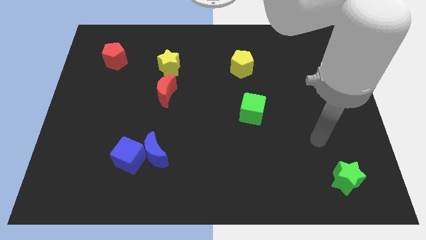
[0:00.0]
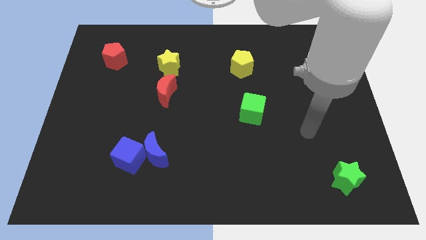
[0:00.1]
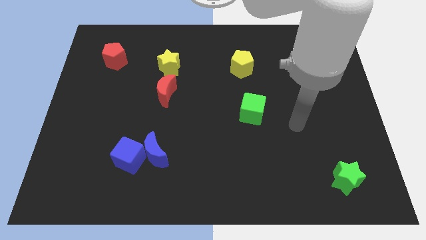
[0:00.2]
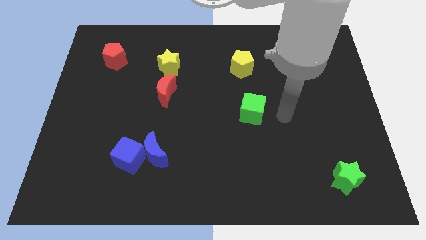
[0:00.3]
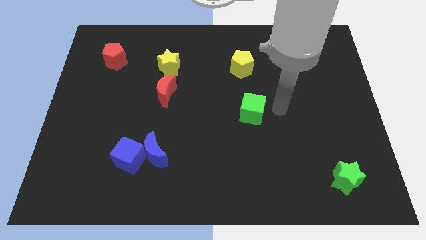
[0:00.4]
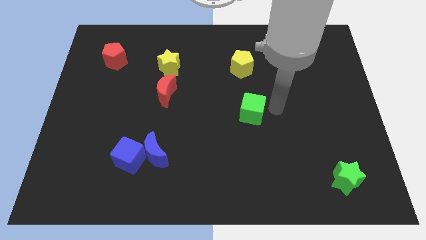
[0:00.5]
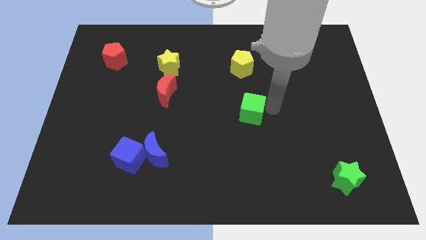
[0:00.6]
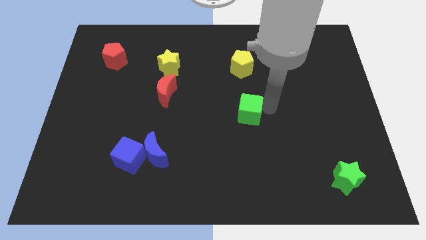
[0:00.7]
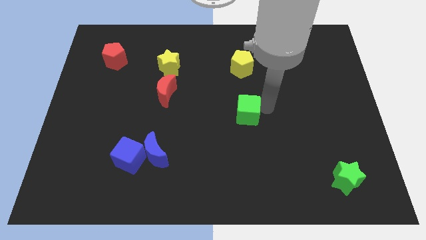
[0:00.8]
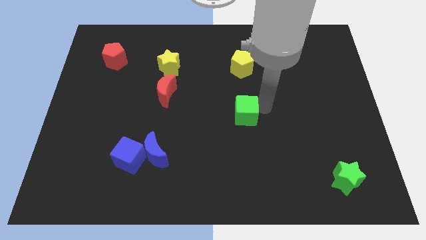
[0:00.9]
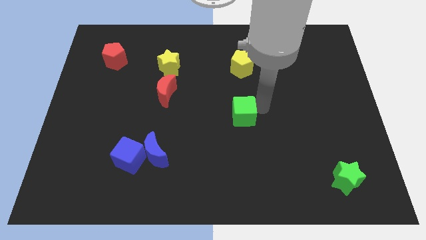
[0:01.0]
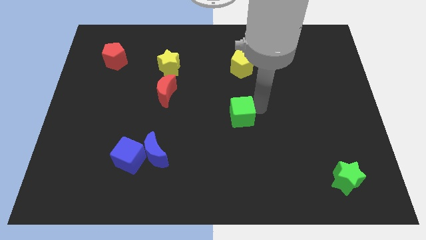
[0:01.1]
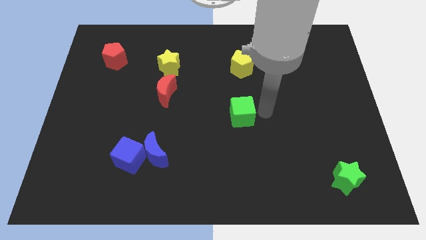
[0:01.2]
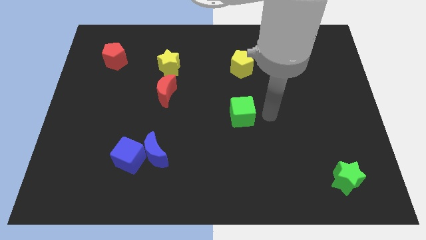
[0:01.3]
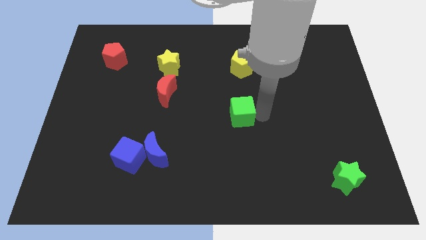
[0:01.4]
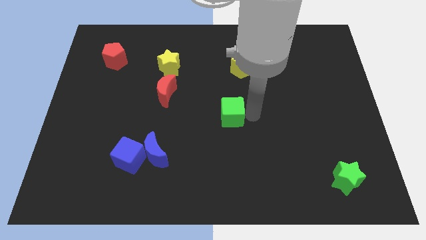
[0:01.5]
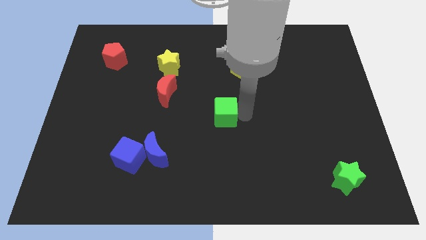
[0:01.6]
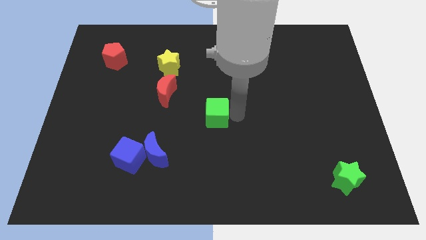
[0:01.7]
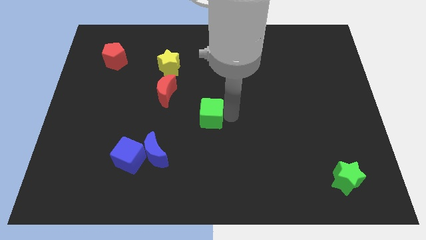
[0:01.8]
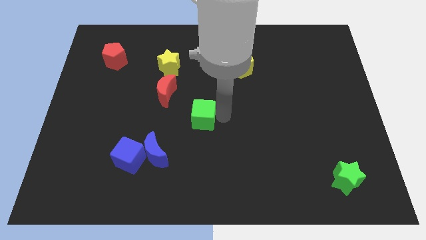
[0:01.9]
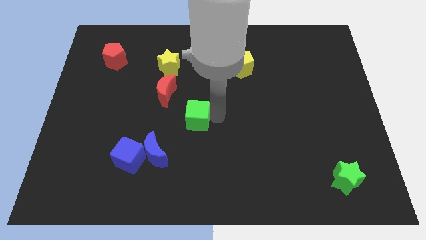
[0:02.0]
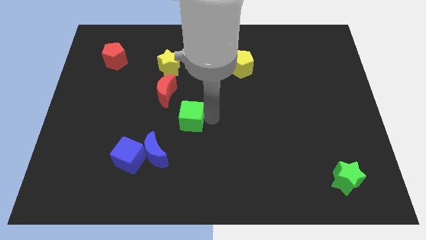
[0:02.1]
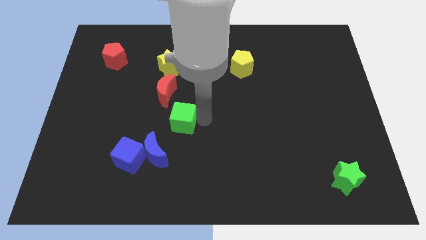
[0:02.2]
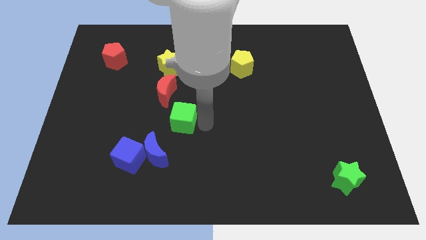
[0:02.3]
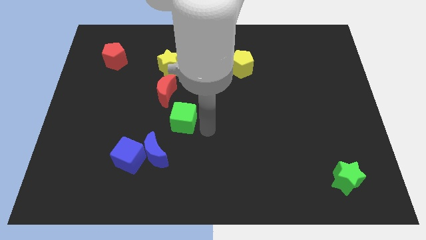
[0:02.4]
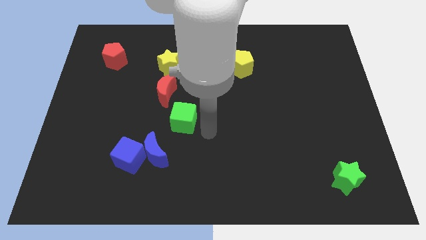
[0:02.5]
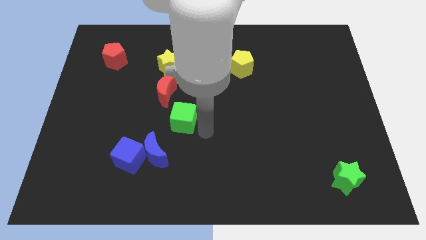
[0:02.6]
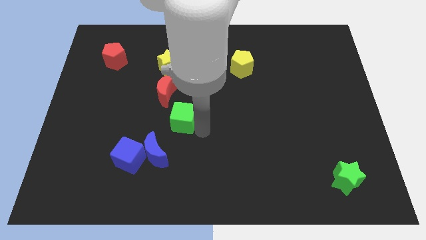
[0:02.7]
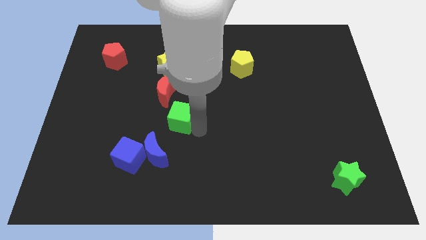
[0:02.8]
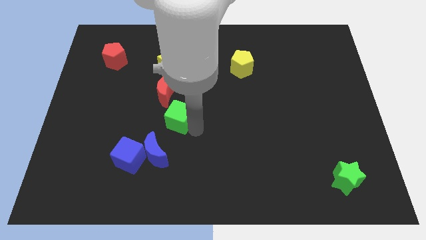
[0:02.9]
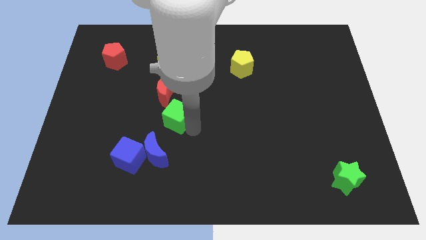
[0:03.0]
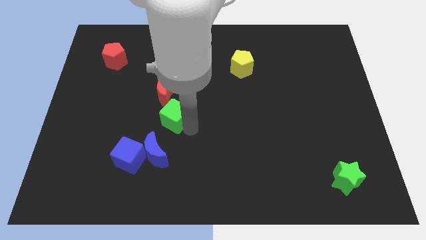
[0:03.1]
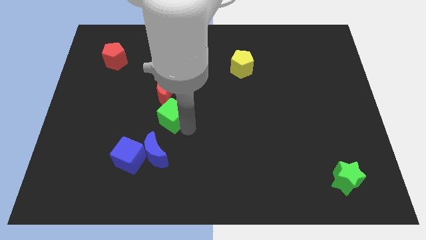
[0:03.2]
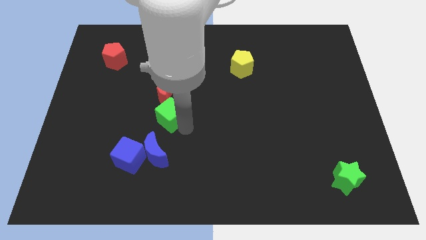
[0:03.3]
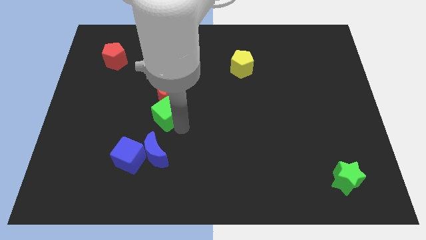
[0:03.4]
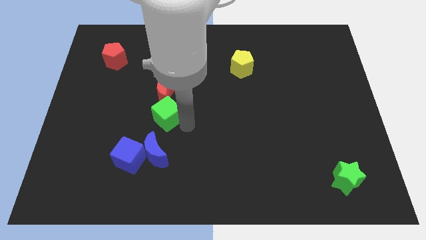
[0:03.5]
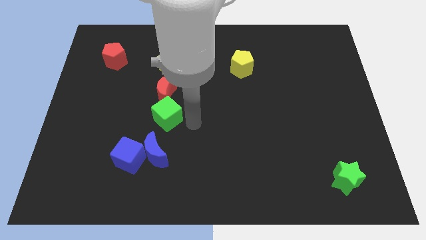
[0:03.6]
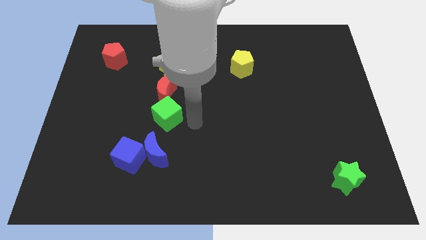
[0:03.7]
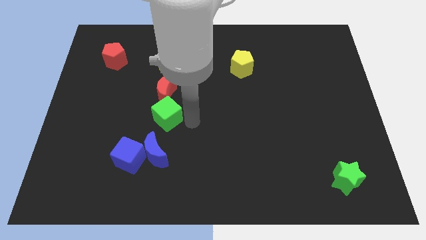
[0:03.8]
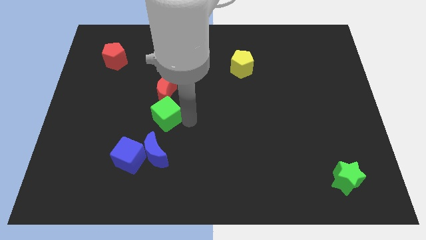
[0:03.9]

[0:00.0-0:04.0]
move the green cube to the left

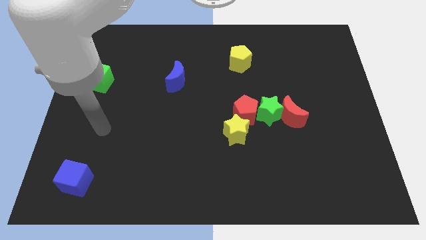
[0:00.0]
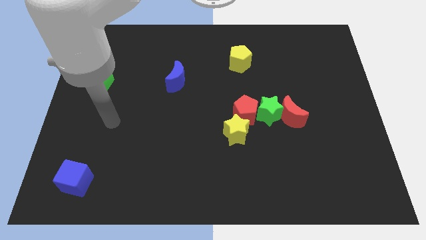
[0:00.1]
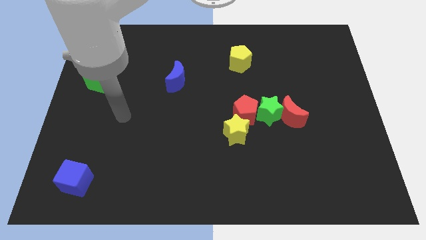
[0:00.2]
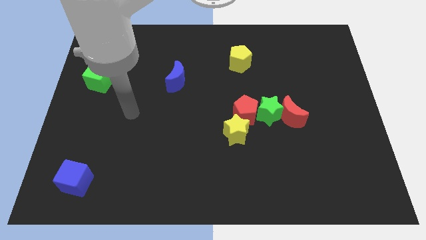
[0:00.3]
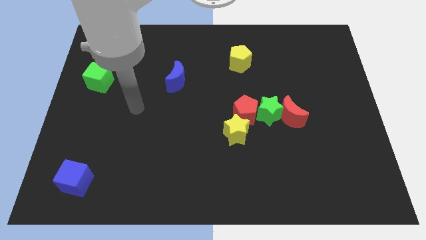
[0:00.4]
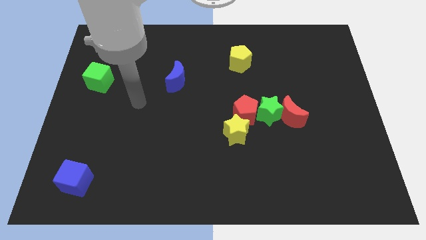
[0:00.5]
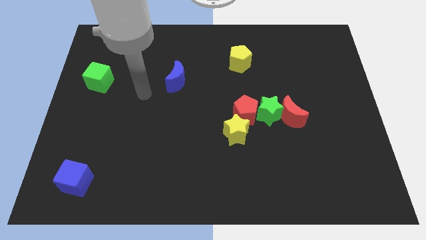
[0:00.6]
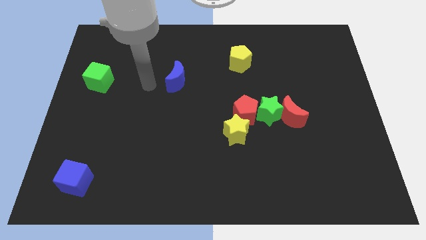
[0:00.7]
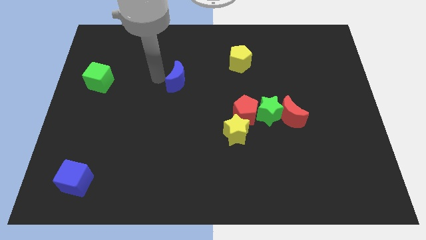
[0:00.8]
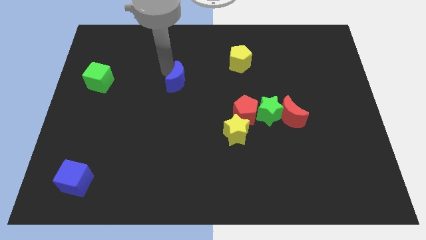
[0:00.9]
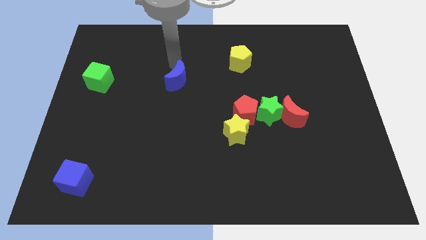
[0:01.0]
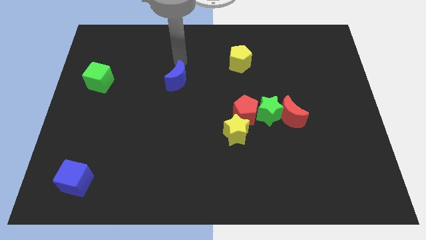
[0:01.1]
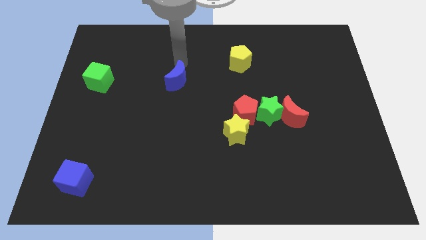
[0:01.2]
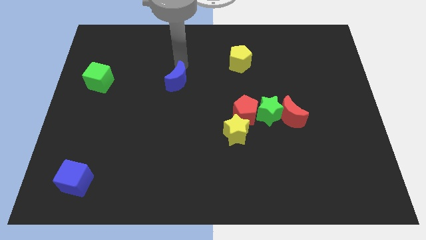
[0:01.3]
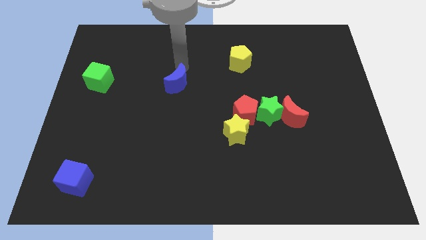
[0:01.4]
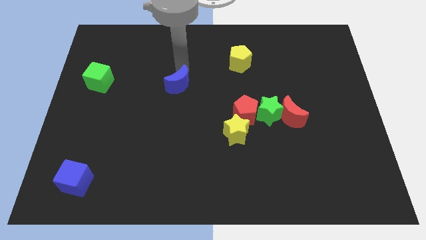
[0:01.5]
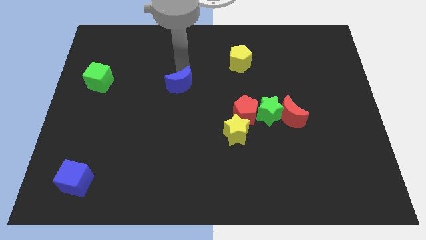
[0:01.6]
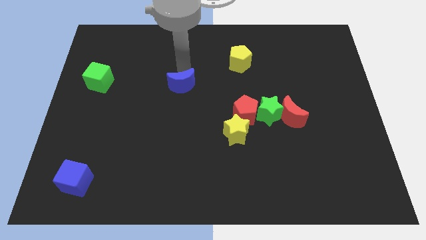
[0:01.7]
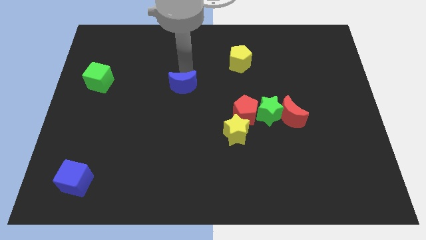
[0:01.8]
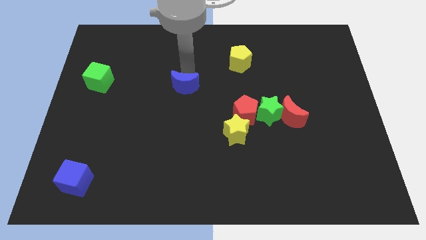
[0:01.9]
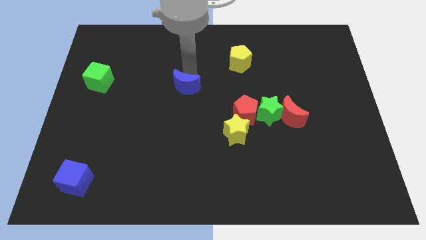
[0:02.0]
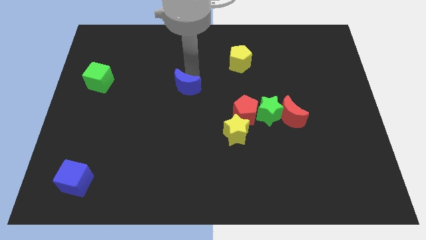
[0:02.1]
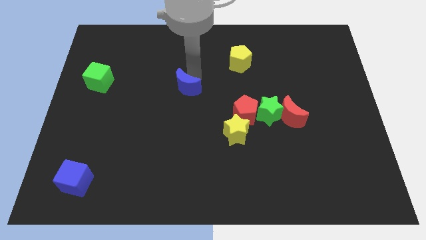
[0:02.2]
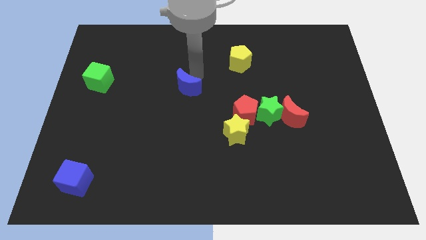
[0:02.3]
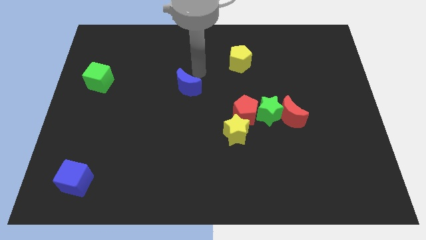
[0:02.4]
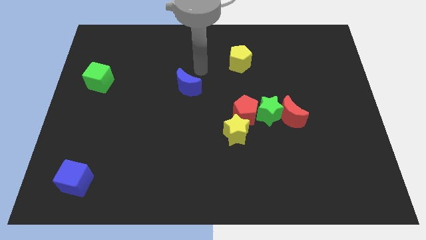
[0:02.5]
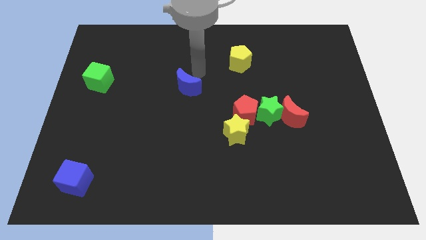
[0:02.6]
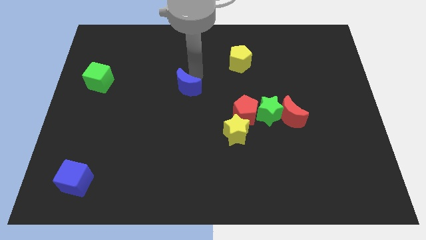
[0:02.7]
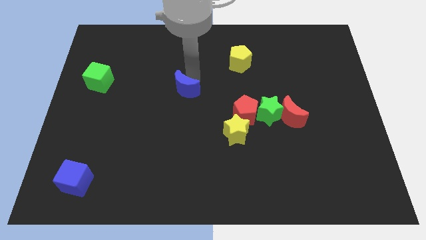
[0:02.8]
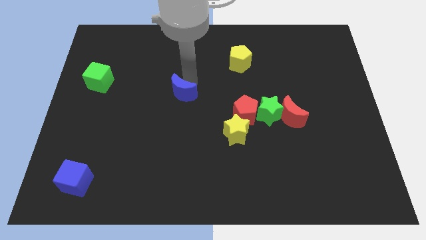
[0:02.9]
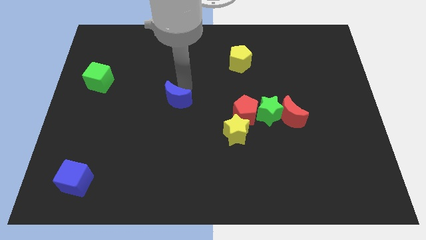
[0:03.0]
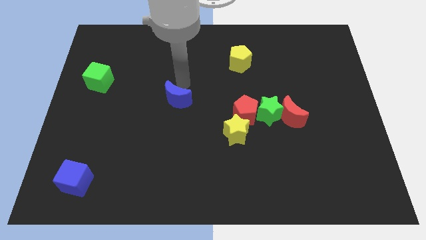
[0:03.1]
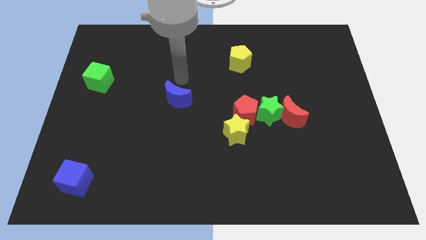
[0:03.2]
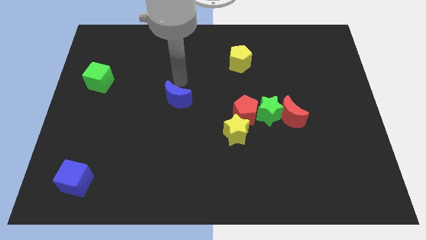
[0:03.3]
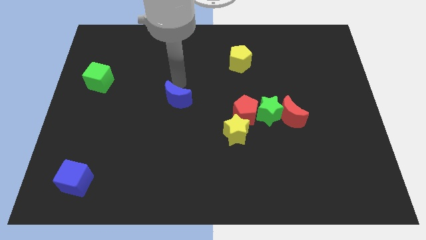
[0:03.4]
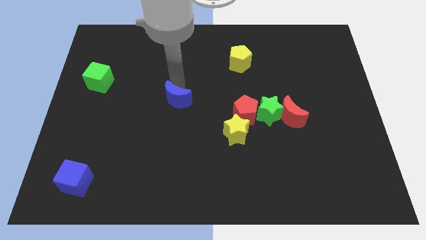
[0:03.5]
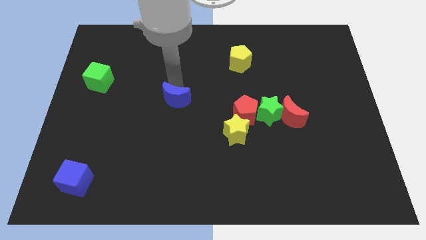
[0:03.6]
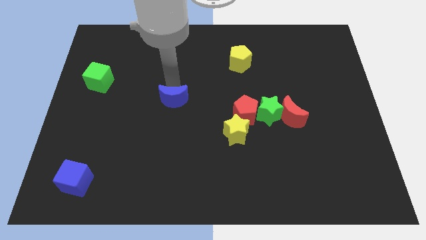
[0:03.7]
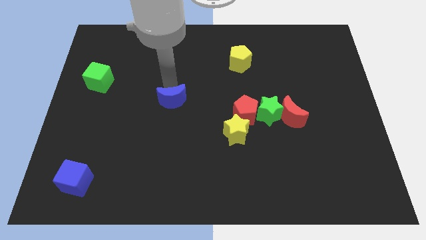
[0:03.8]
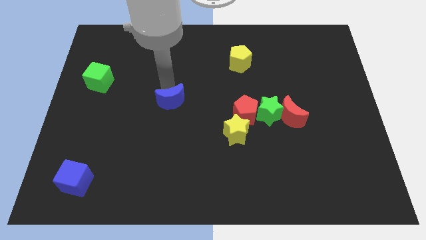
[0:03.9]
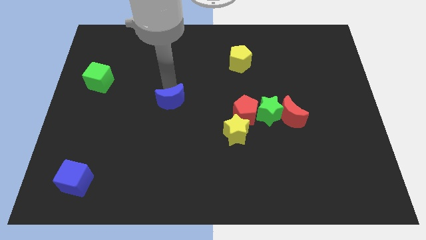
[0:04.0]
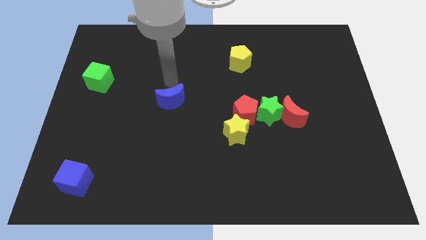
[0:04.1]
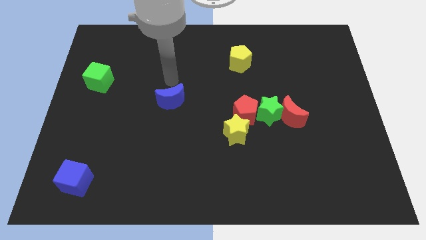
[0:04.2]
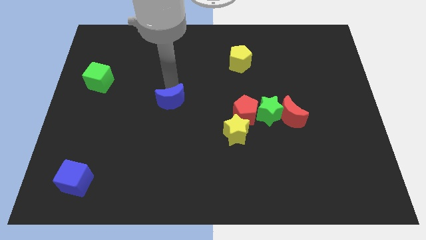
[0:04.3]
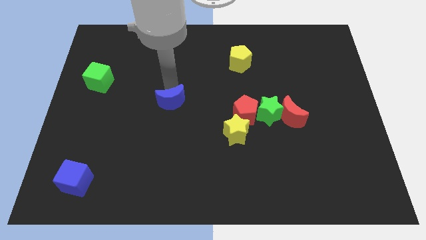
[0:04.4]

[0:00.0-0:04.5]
move the blue moon downwards slightly
